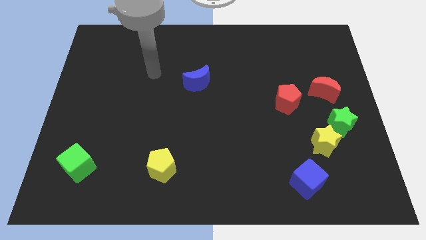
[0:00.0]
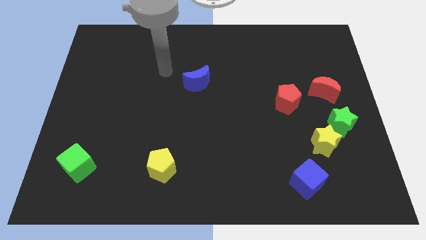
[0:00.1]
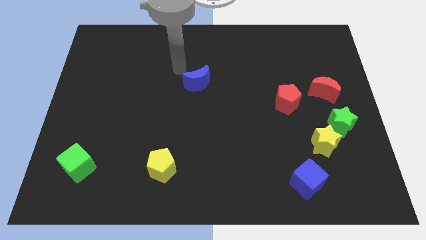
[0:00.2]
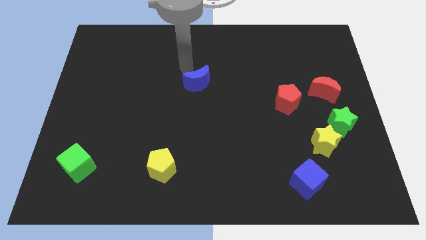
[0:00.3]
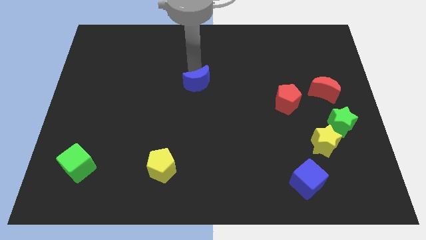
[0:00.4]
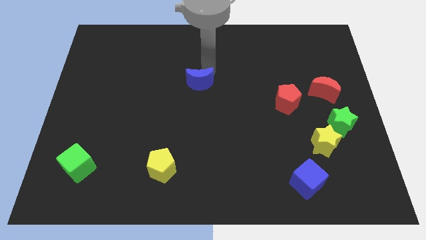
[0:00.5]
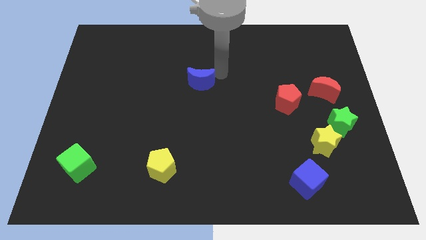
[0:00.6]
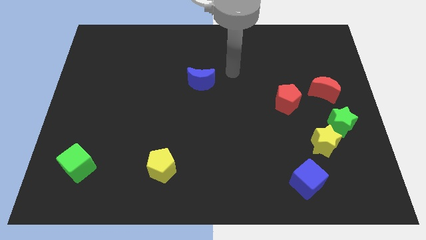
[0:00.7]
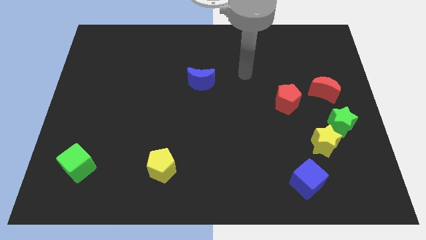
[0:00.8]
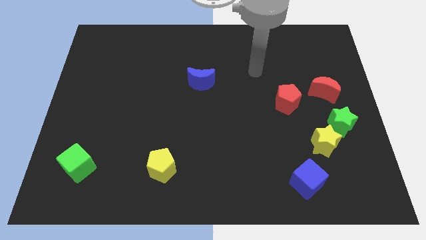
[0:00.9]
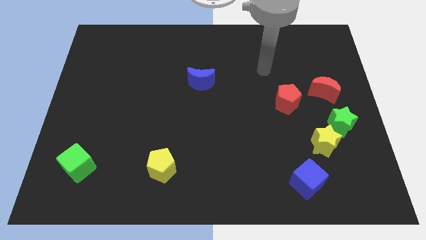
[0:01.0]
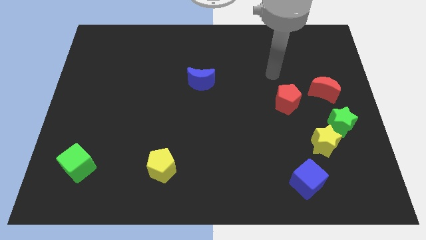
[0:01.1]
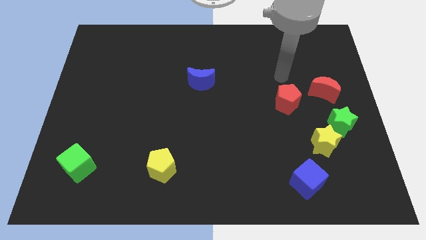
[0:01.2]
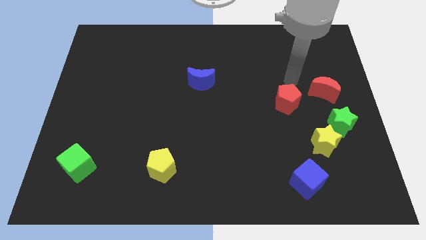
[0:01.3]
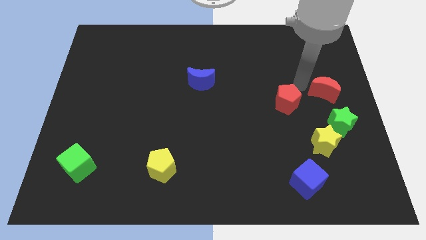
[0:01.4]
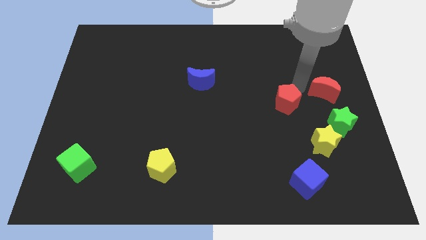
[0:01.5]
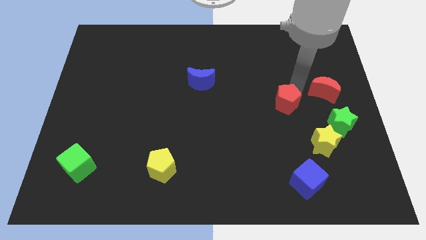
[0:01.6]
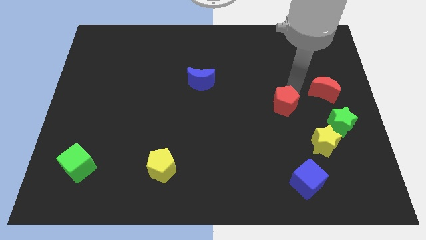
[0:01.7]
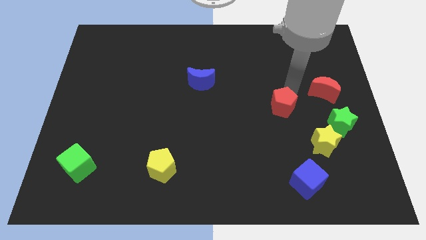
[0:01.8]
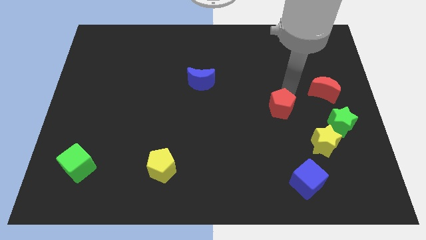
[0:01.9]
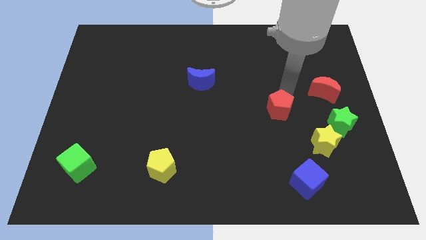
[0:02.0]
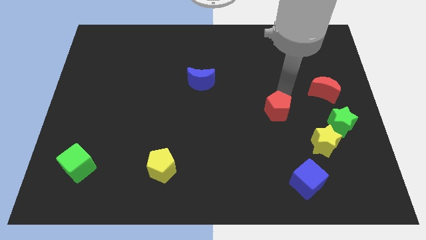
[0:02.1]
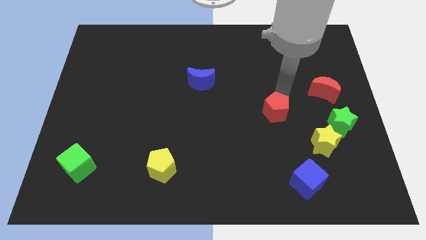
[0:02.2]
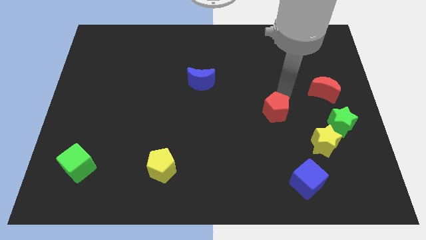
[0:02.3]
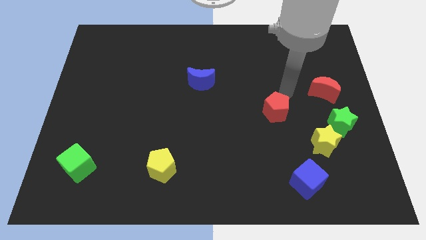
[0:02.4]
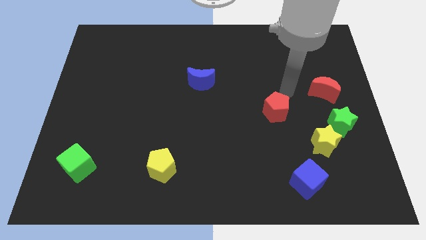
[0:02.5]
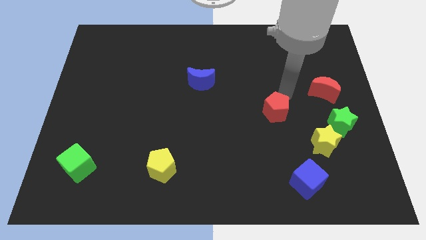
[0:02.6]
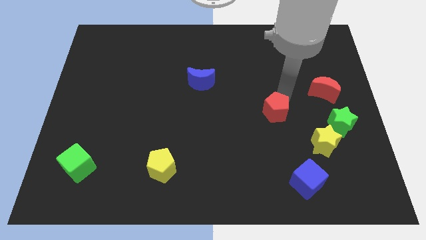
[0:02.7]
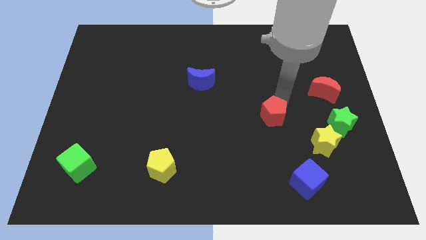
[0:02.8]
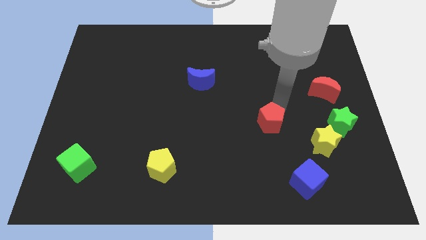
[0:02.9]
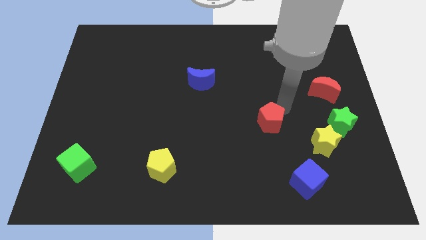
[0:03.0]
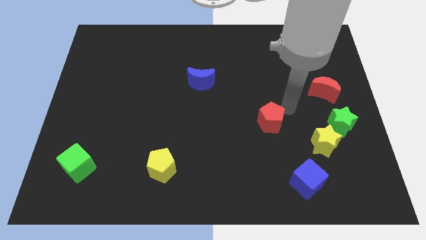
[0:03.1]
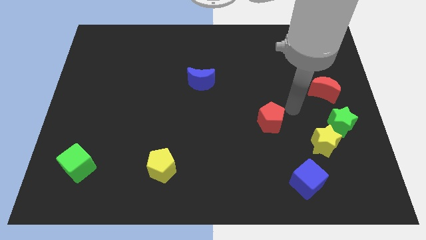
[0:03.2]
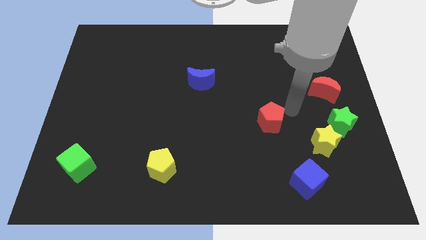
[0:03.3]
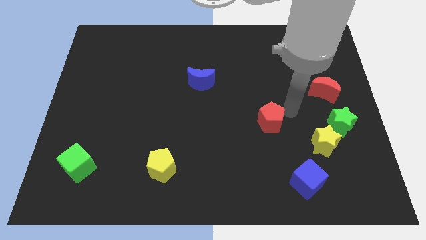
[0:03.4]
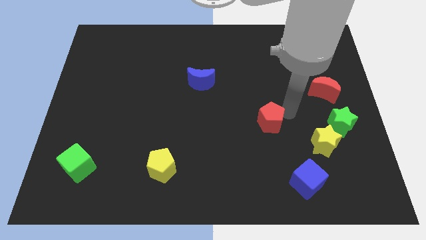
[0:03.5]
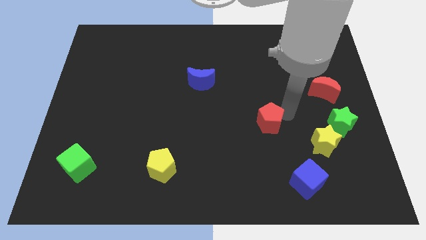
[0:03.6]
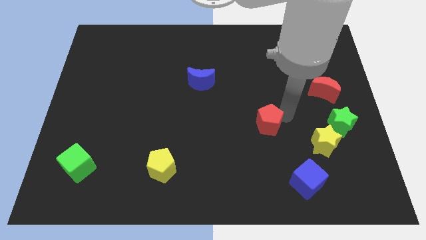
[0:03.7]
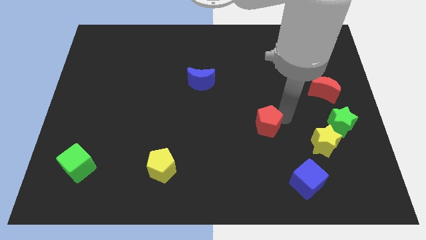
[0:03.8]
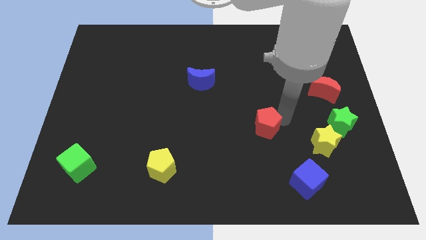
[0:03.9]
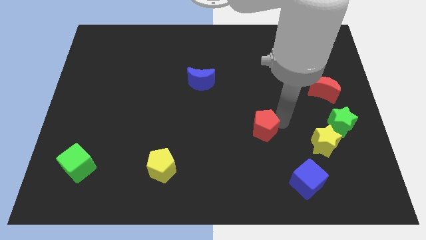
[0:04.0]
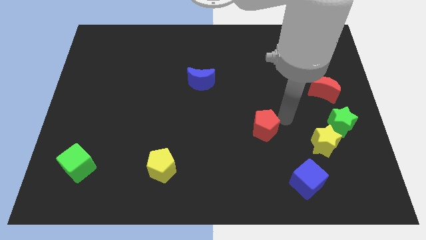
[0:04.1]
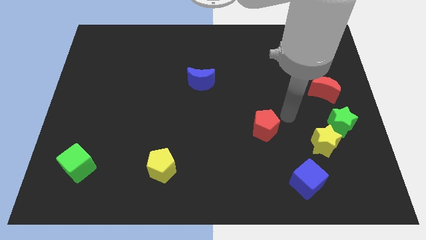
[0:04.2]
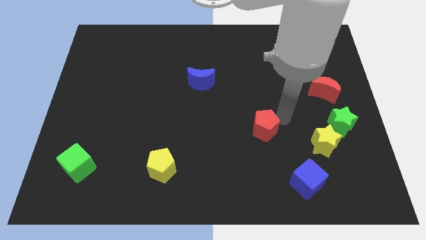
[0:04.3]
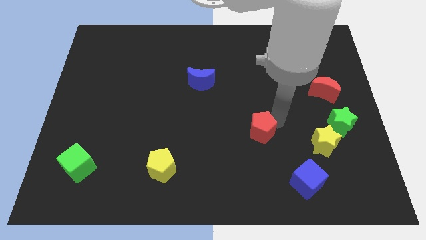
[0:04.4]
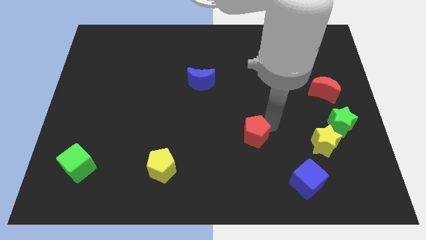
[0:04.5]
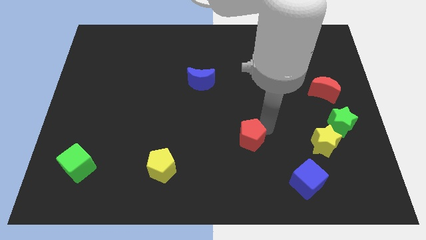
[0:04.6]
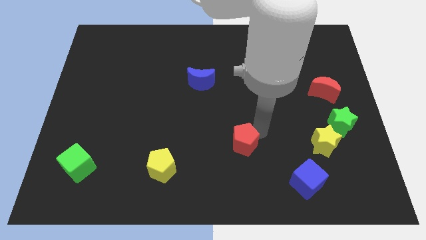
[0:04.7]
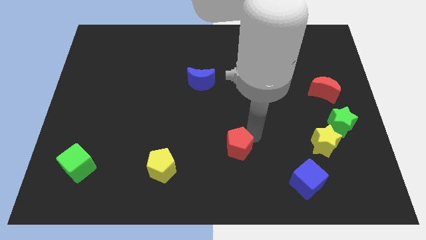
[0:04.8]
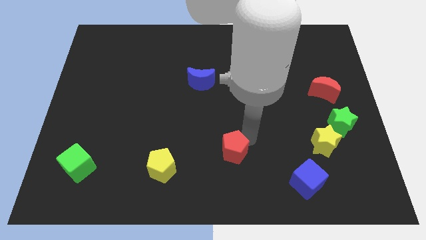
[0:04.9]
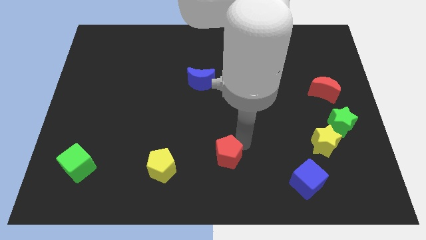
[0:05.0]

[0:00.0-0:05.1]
move the red pentagon right of the yellow pentagon

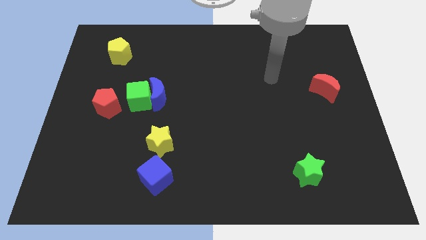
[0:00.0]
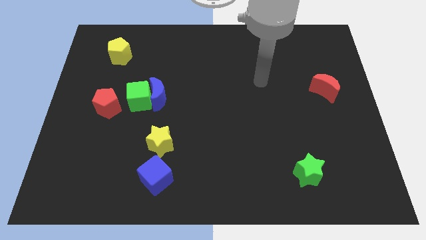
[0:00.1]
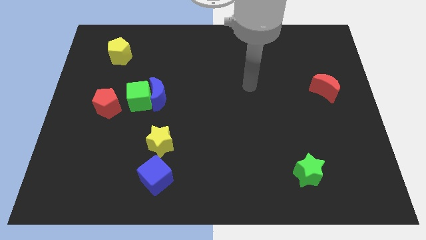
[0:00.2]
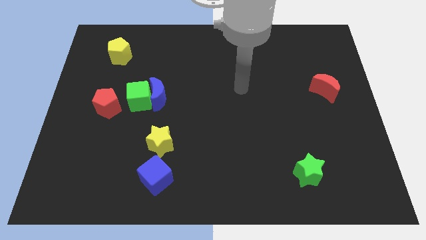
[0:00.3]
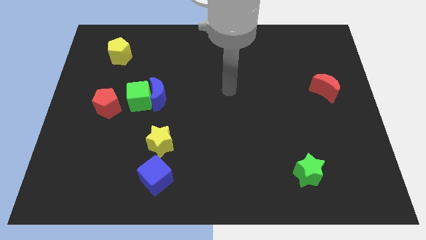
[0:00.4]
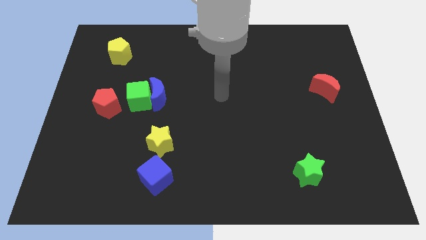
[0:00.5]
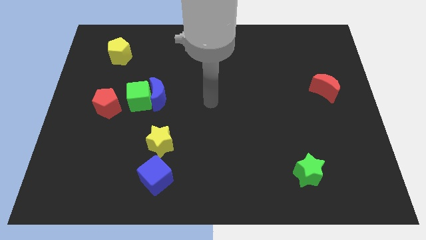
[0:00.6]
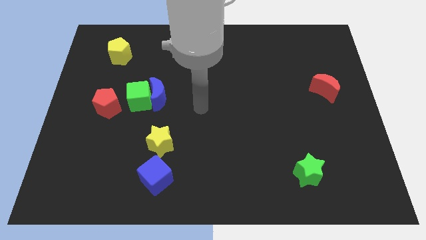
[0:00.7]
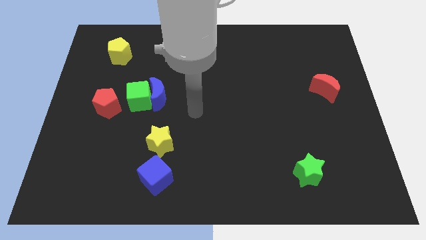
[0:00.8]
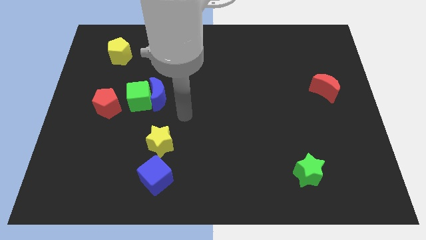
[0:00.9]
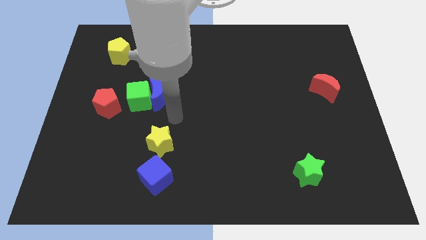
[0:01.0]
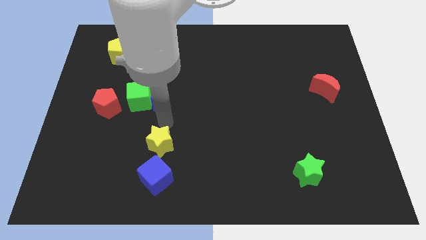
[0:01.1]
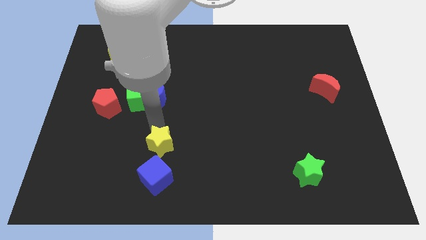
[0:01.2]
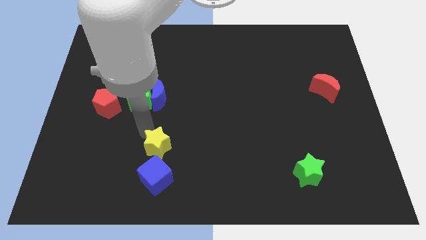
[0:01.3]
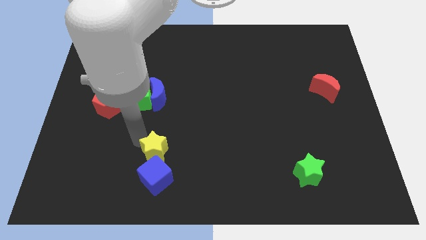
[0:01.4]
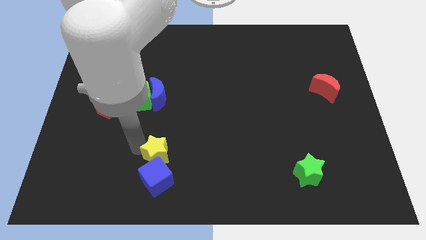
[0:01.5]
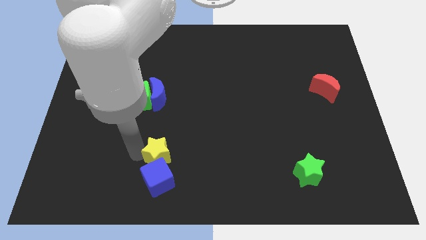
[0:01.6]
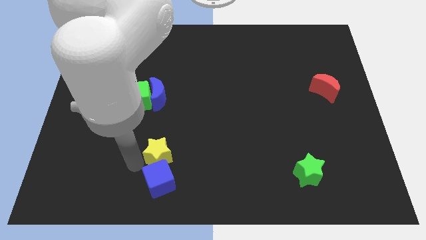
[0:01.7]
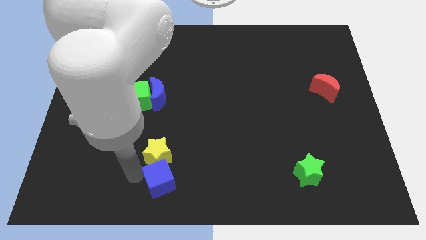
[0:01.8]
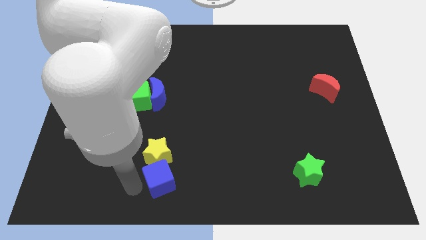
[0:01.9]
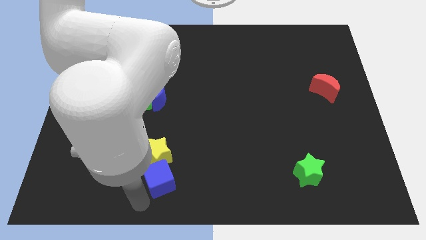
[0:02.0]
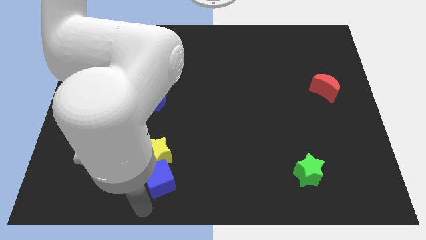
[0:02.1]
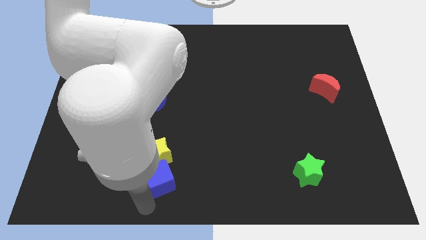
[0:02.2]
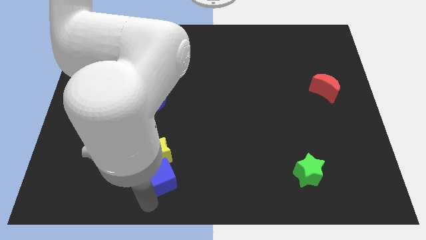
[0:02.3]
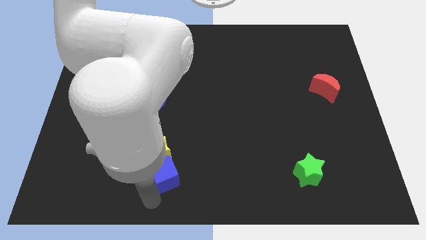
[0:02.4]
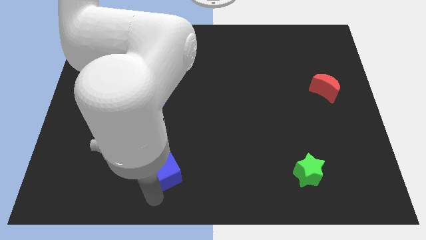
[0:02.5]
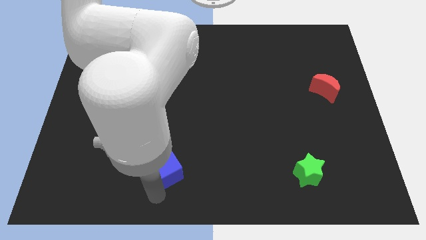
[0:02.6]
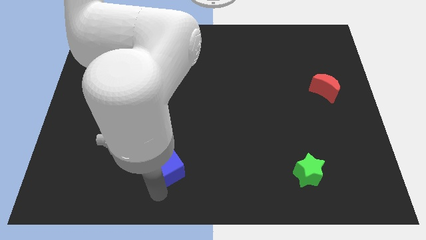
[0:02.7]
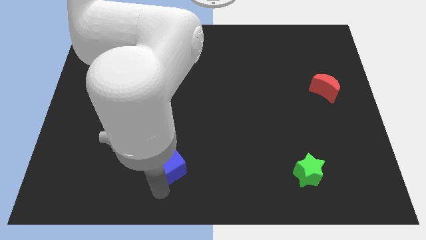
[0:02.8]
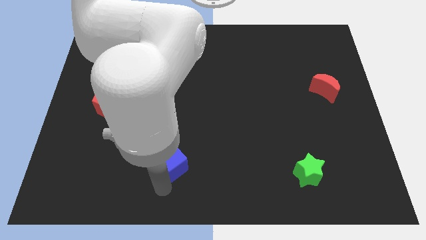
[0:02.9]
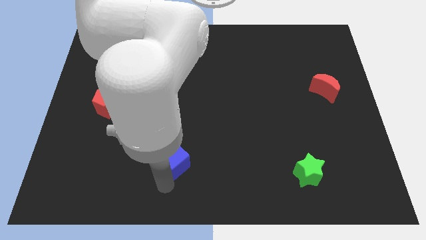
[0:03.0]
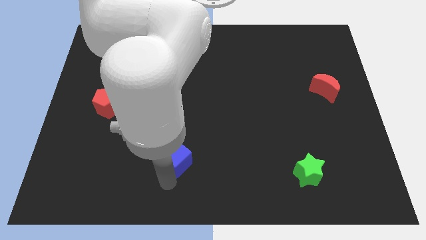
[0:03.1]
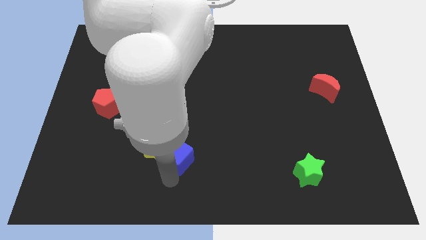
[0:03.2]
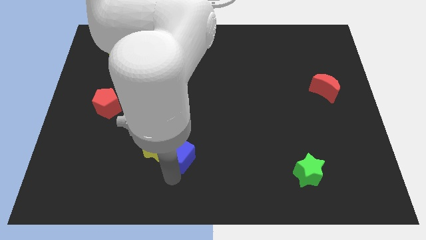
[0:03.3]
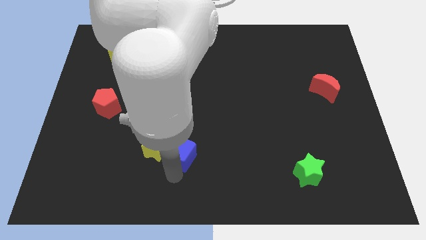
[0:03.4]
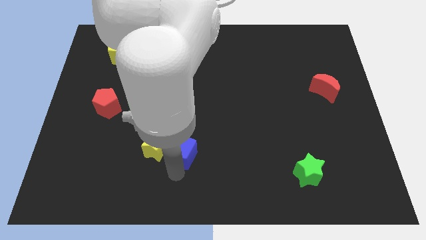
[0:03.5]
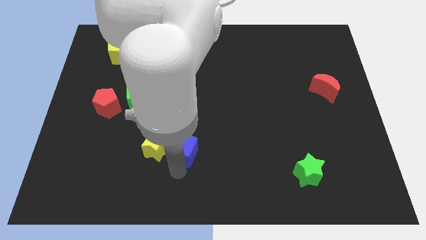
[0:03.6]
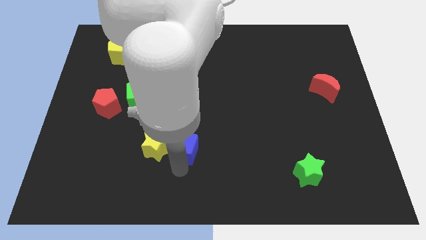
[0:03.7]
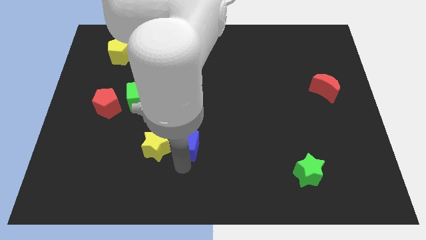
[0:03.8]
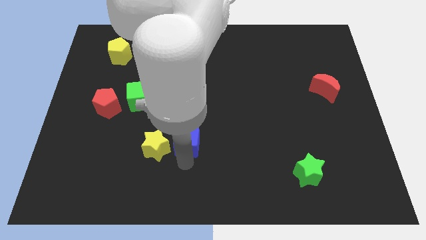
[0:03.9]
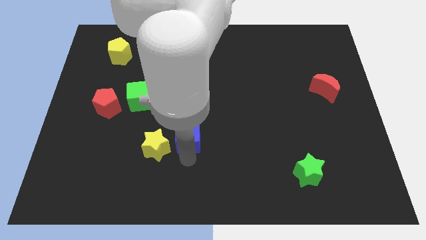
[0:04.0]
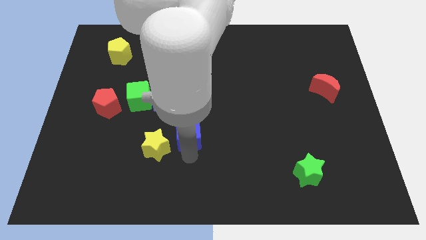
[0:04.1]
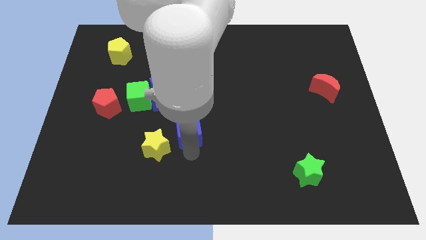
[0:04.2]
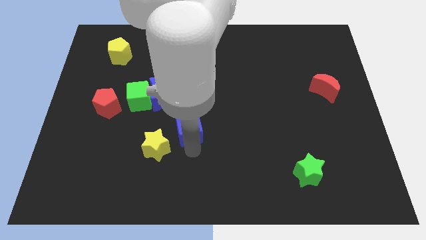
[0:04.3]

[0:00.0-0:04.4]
push the blue cube to the bottom right side of the blue moon
